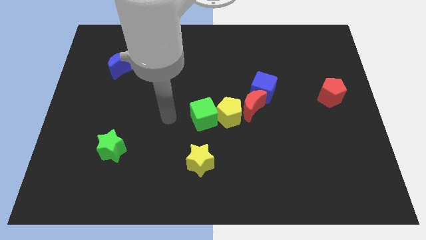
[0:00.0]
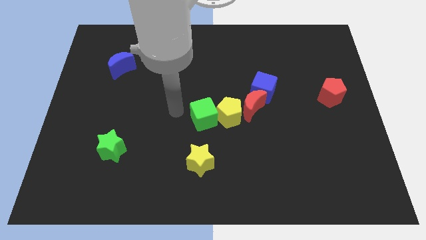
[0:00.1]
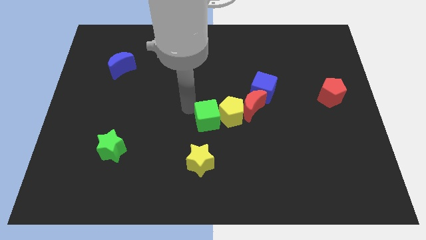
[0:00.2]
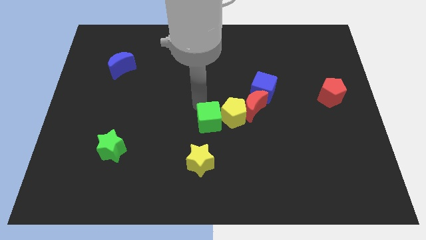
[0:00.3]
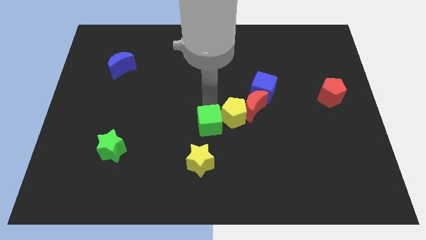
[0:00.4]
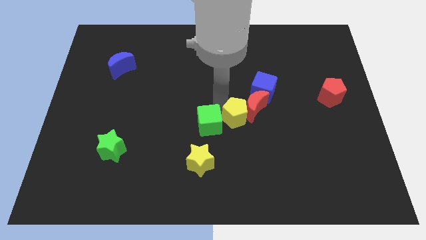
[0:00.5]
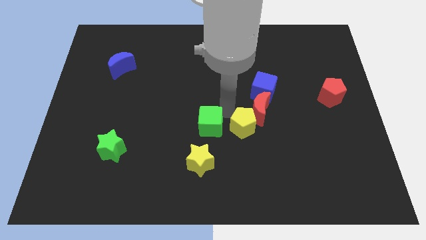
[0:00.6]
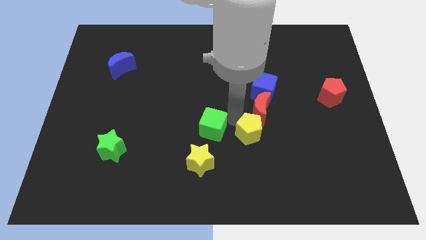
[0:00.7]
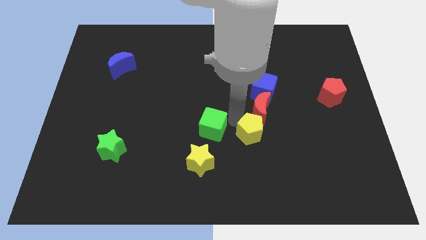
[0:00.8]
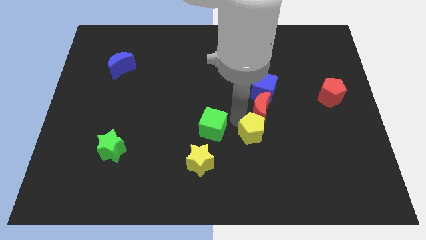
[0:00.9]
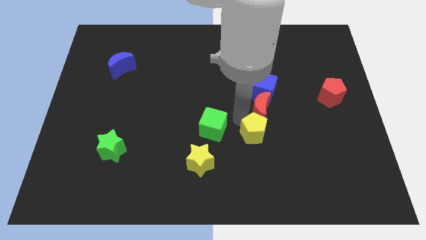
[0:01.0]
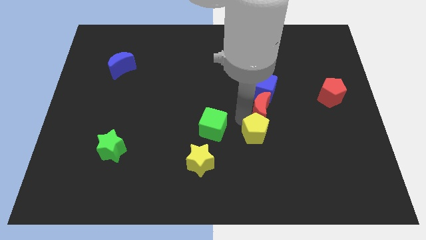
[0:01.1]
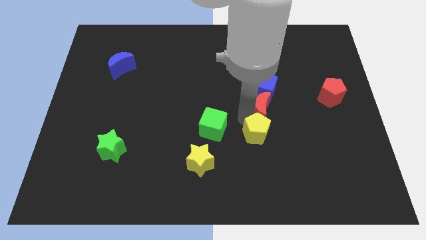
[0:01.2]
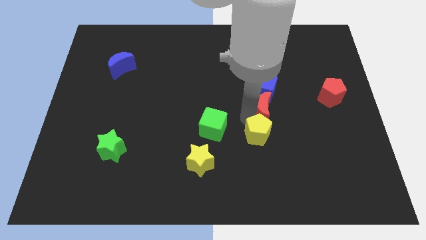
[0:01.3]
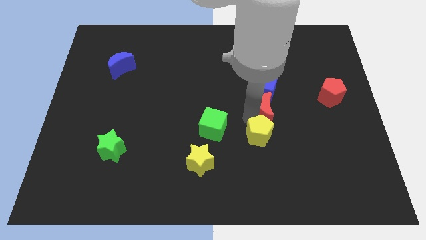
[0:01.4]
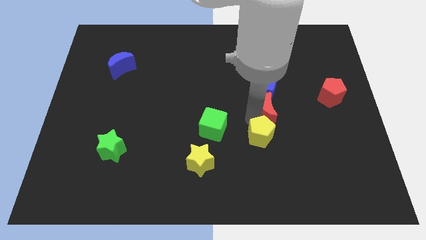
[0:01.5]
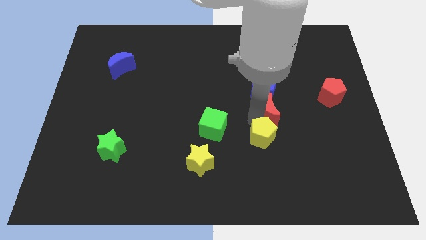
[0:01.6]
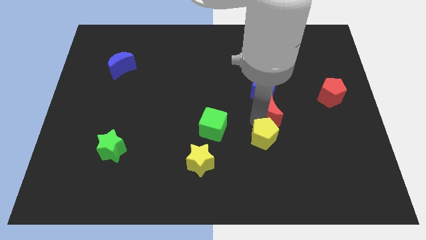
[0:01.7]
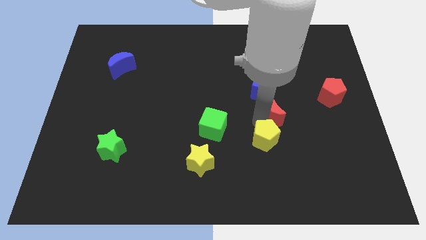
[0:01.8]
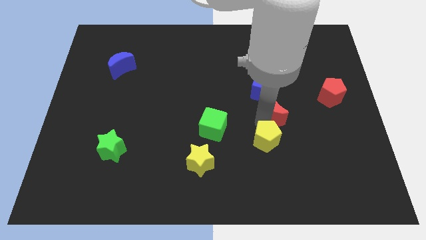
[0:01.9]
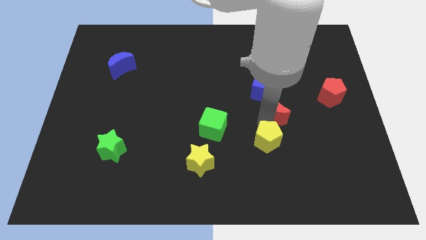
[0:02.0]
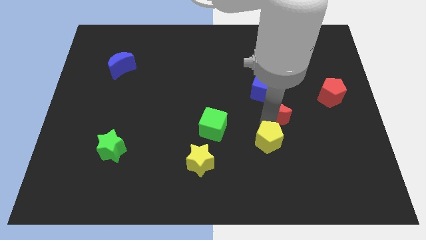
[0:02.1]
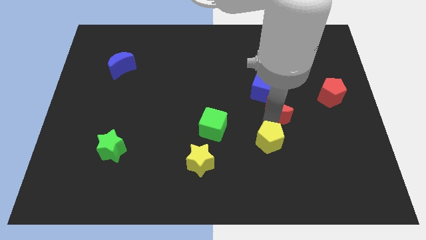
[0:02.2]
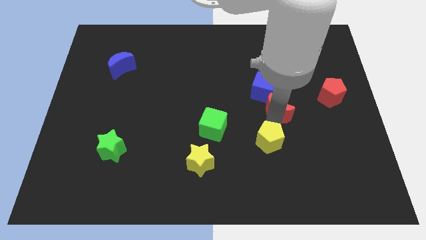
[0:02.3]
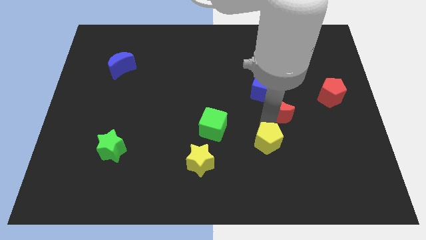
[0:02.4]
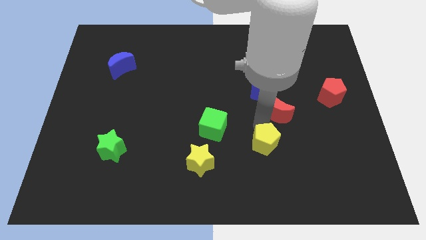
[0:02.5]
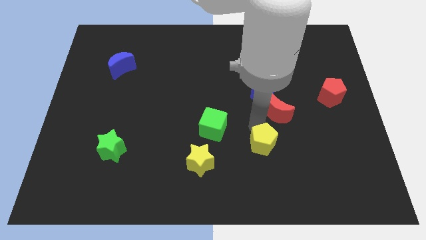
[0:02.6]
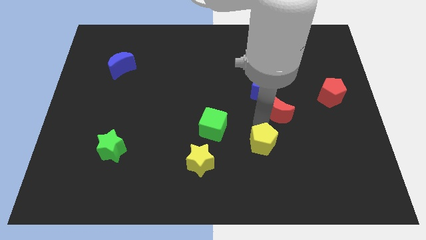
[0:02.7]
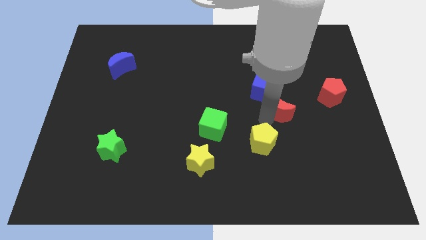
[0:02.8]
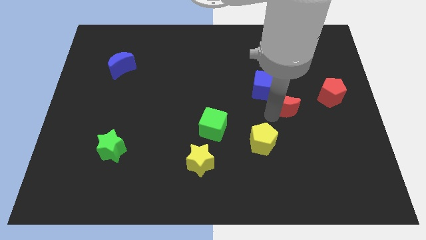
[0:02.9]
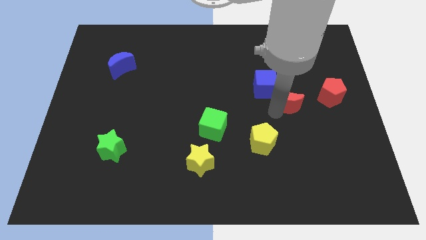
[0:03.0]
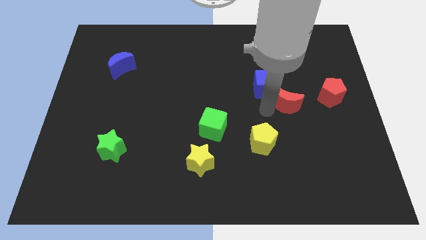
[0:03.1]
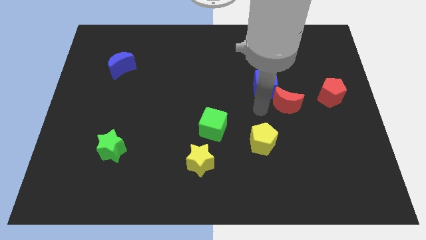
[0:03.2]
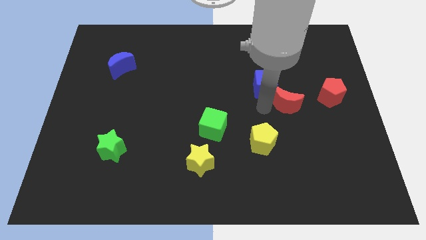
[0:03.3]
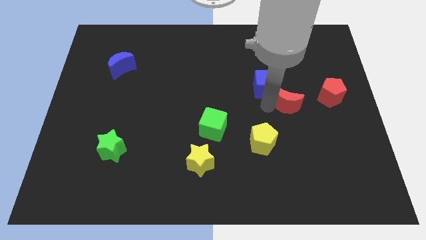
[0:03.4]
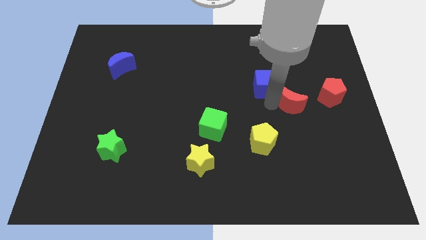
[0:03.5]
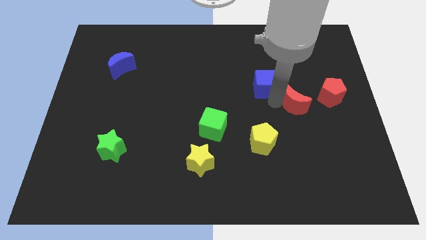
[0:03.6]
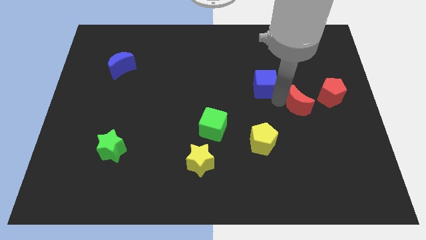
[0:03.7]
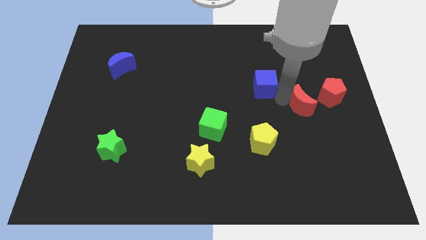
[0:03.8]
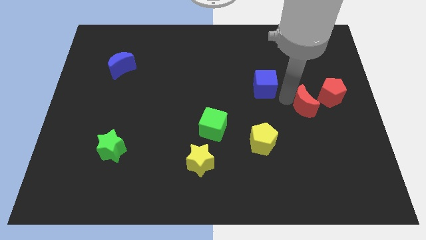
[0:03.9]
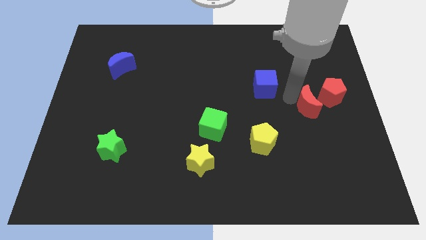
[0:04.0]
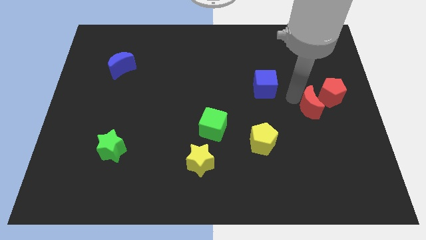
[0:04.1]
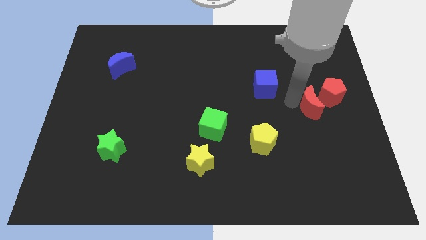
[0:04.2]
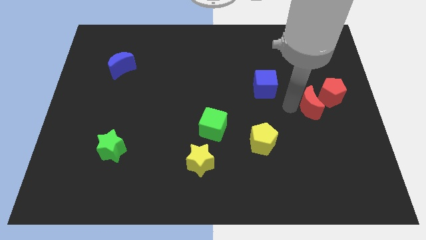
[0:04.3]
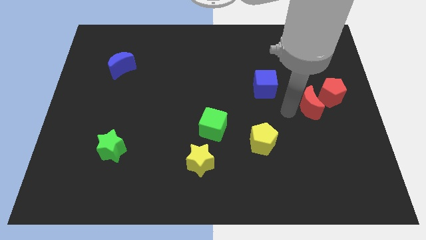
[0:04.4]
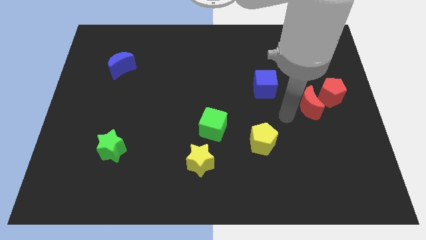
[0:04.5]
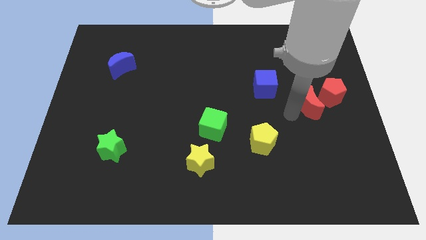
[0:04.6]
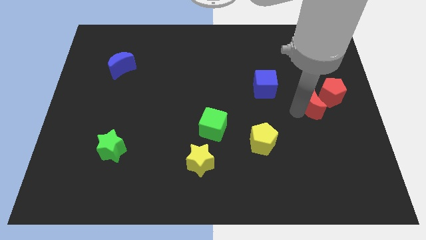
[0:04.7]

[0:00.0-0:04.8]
put the red moon towards the red pentagon

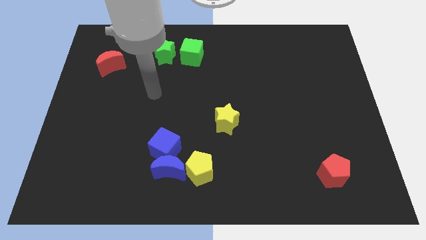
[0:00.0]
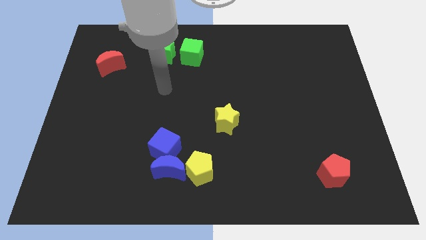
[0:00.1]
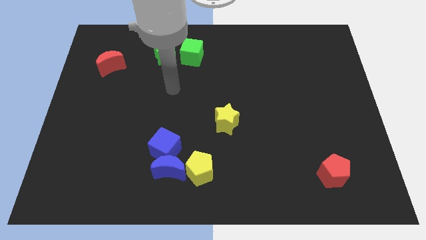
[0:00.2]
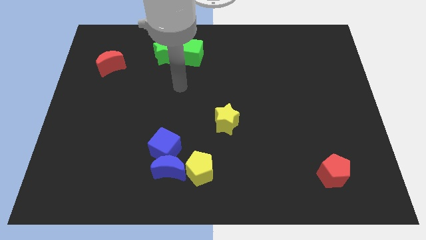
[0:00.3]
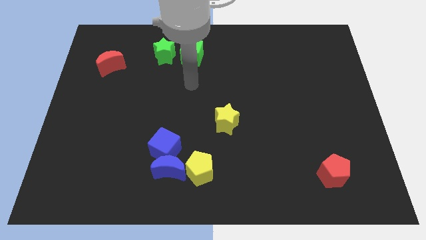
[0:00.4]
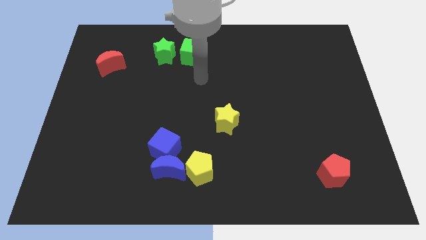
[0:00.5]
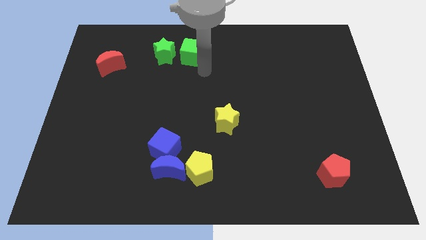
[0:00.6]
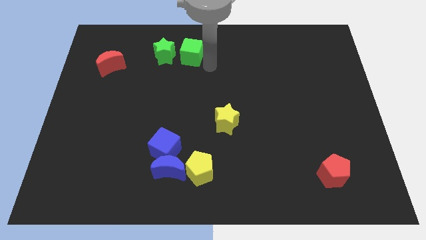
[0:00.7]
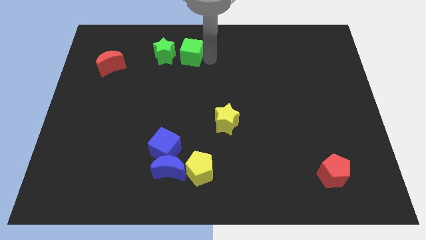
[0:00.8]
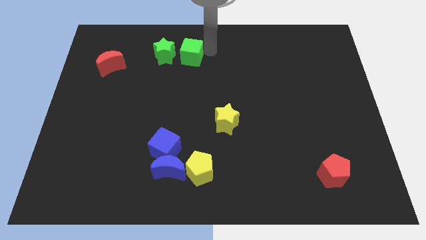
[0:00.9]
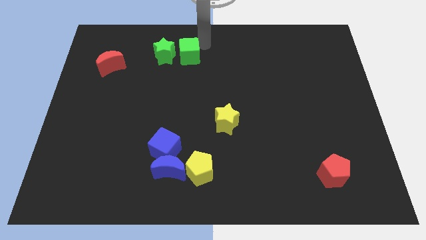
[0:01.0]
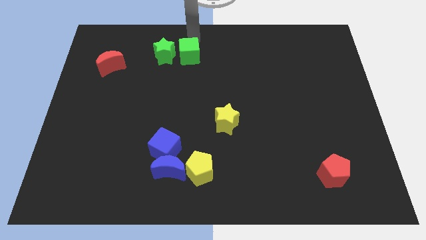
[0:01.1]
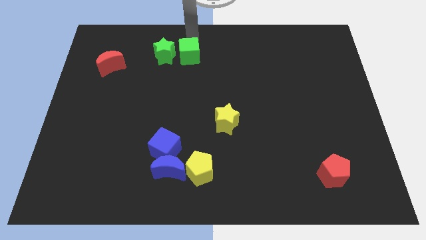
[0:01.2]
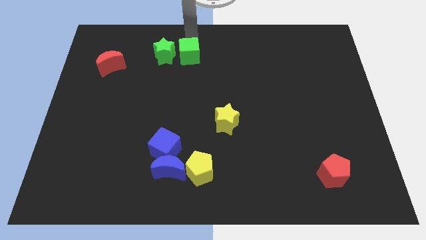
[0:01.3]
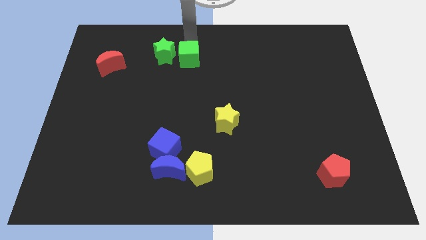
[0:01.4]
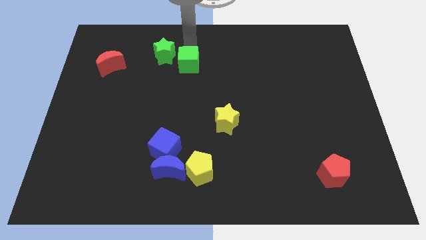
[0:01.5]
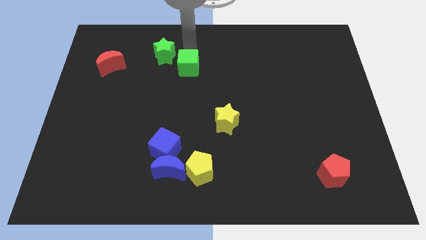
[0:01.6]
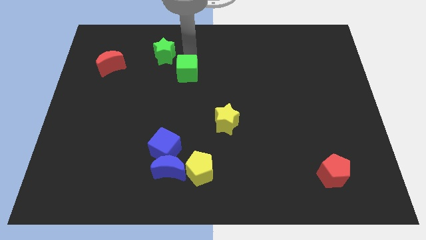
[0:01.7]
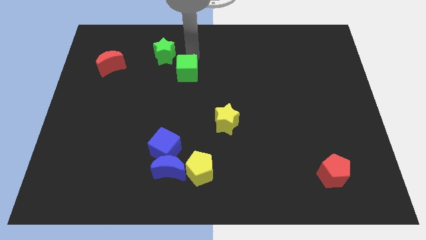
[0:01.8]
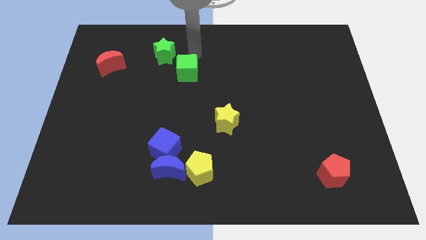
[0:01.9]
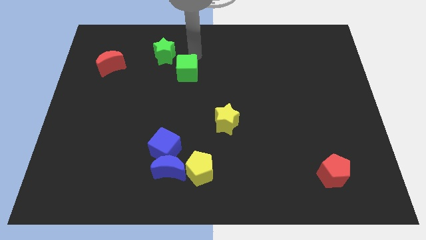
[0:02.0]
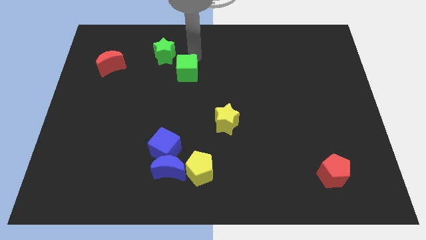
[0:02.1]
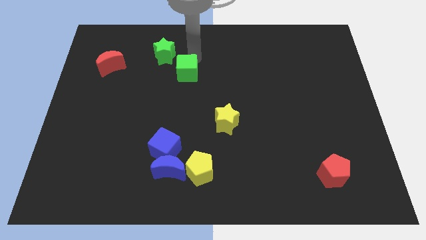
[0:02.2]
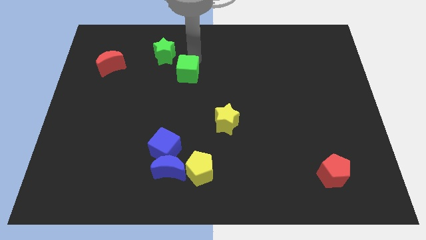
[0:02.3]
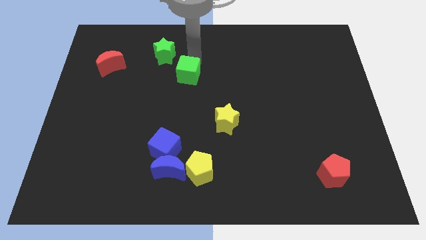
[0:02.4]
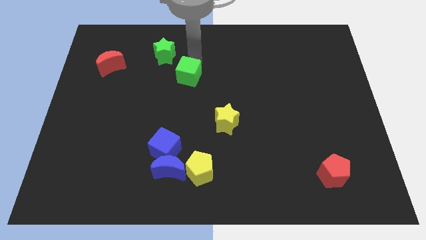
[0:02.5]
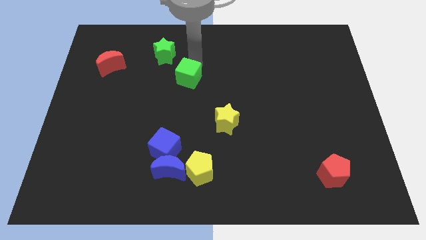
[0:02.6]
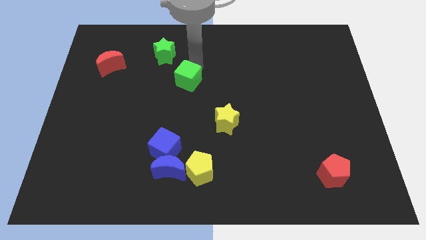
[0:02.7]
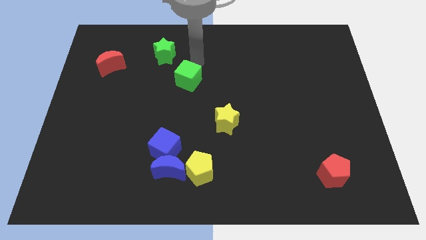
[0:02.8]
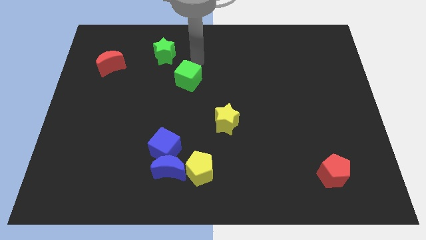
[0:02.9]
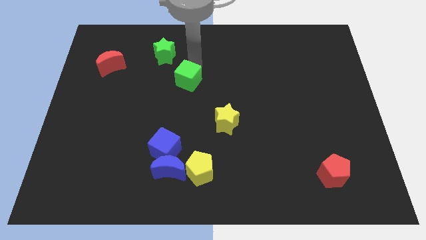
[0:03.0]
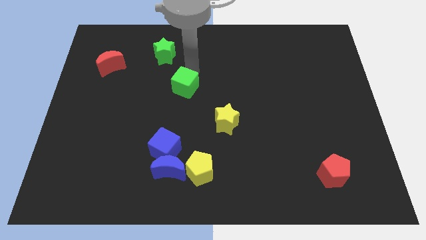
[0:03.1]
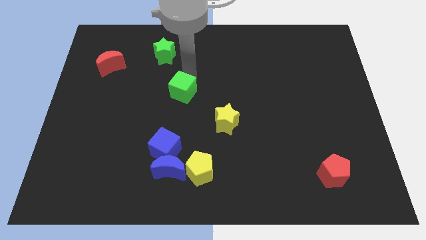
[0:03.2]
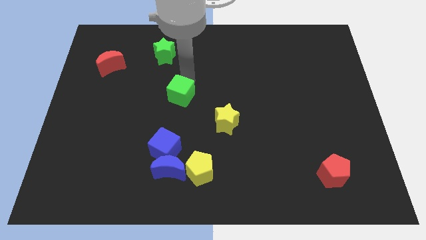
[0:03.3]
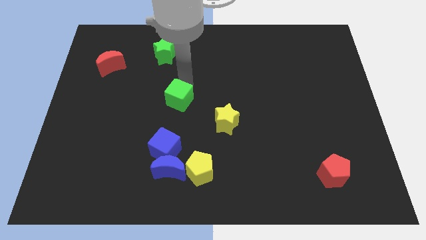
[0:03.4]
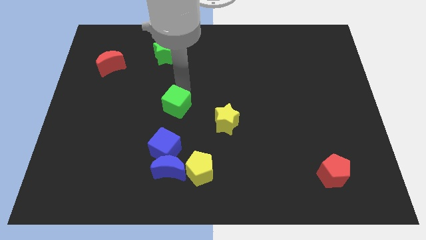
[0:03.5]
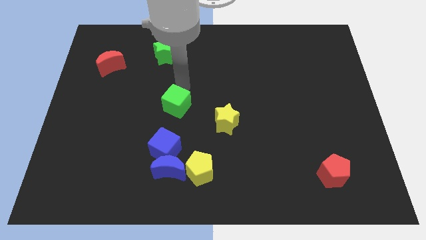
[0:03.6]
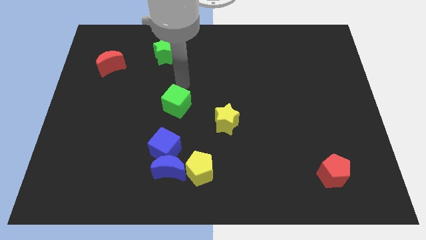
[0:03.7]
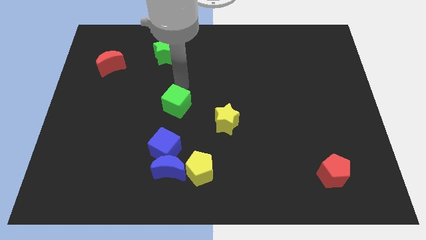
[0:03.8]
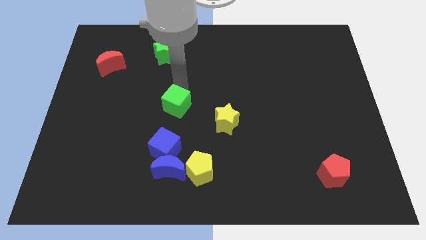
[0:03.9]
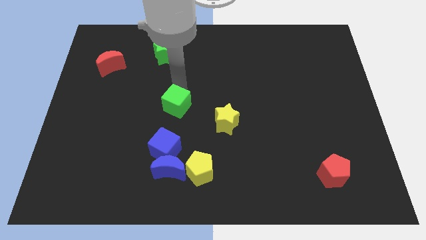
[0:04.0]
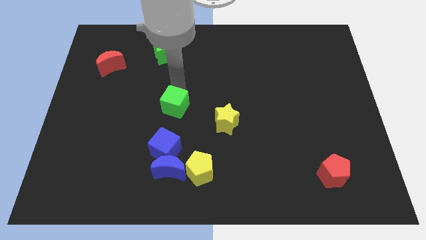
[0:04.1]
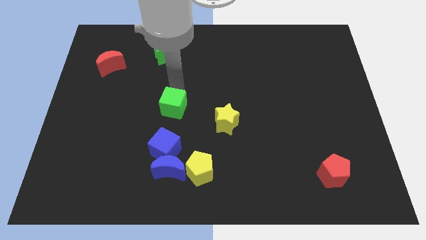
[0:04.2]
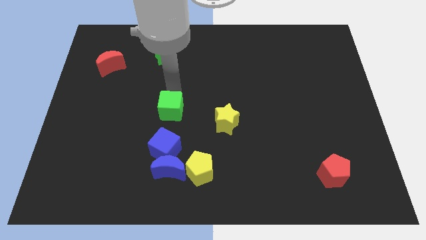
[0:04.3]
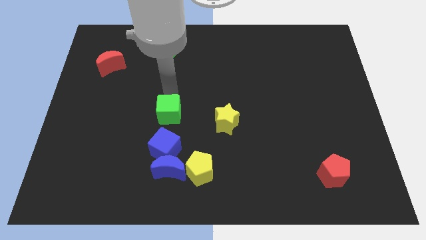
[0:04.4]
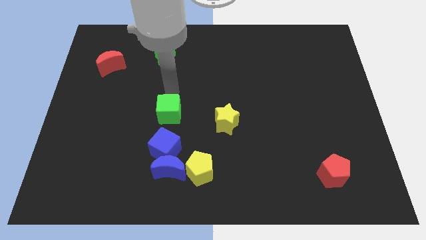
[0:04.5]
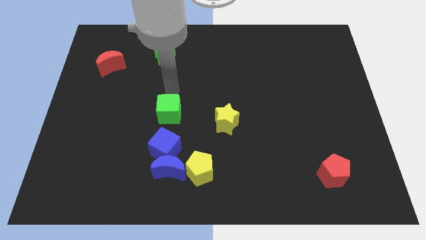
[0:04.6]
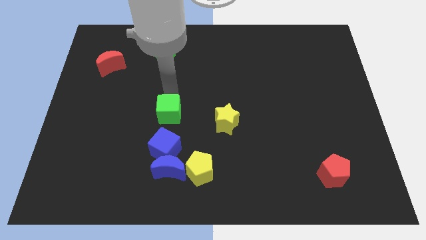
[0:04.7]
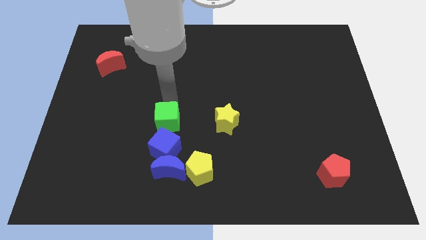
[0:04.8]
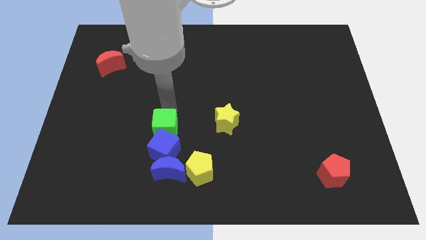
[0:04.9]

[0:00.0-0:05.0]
move the green cube towards the blue cube
